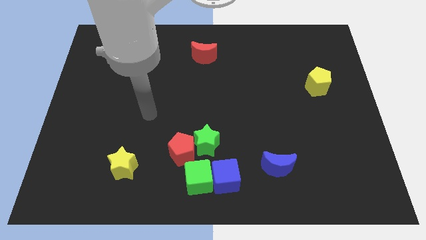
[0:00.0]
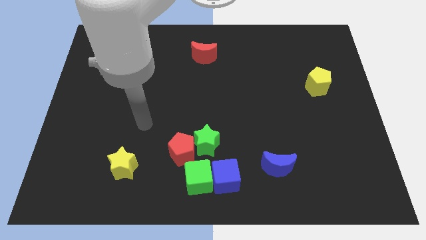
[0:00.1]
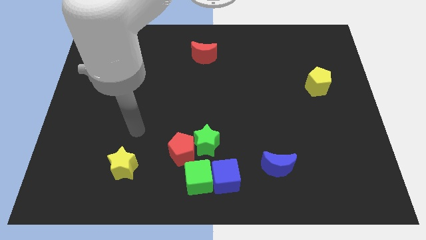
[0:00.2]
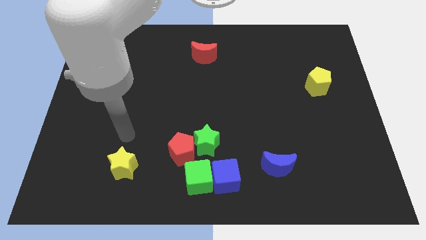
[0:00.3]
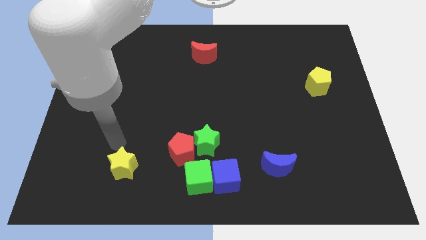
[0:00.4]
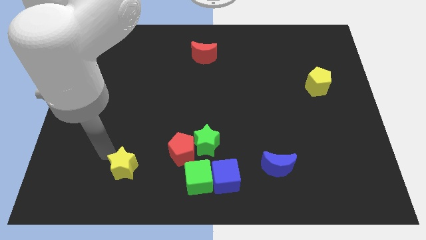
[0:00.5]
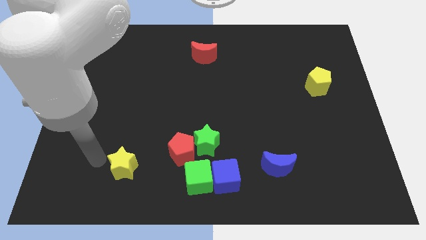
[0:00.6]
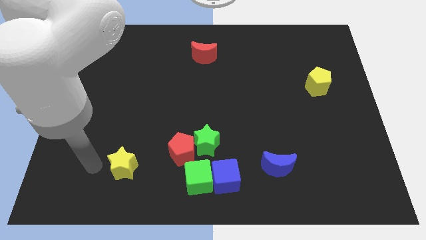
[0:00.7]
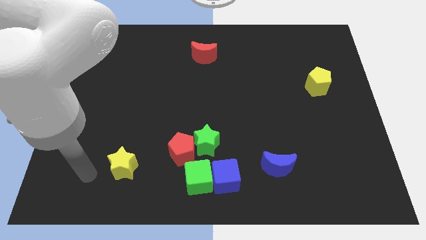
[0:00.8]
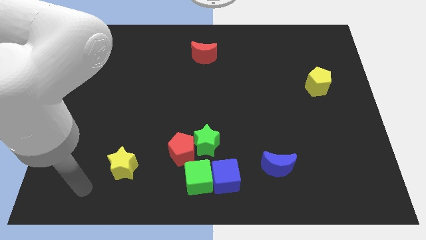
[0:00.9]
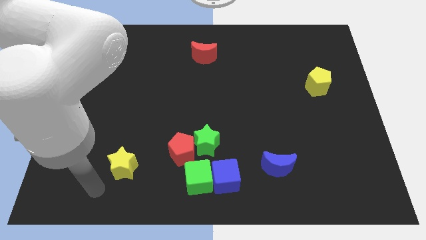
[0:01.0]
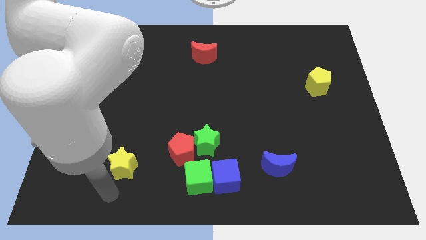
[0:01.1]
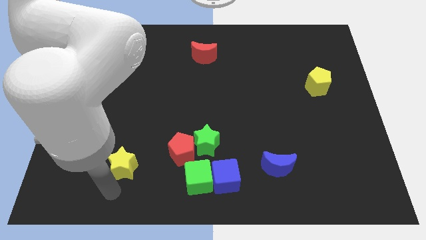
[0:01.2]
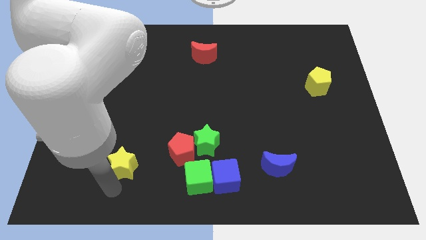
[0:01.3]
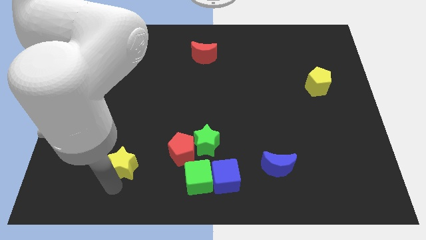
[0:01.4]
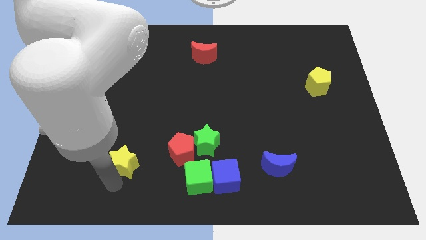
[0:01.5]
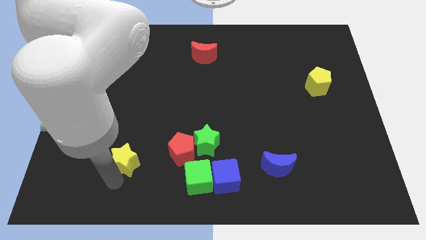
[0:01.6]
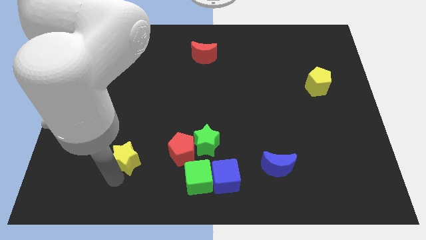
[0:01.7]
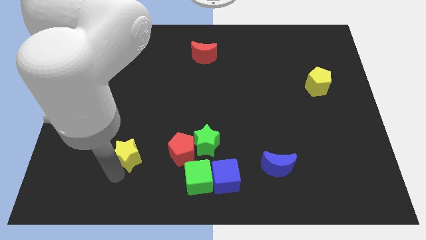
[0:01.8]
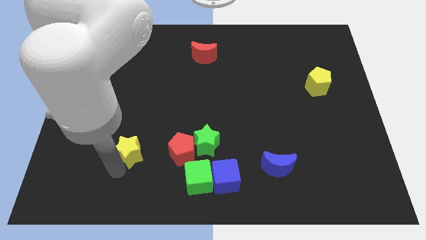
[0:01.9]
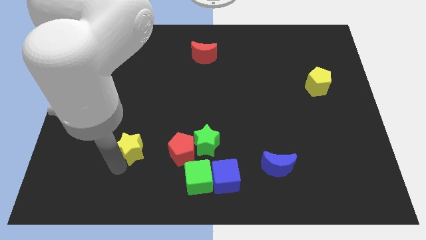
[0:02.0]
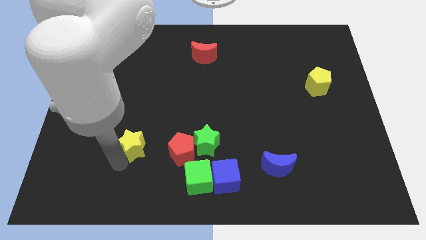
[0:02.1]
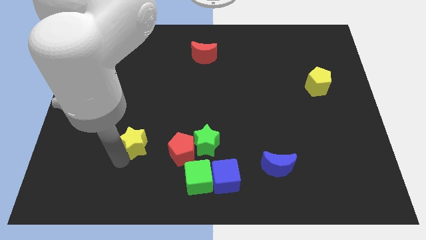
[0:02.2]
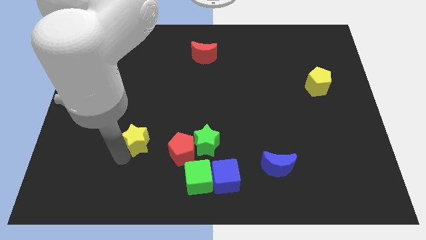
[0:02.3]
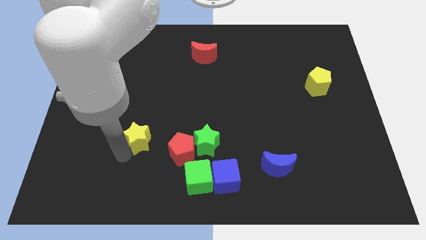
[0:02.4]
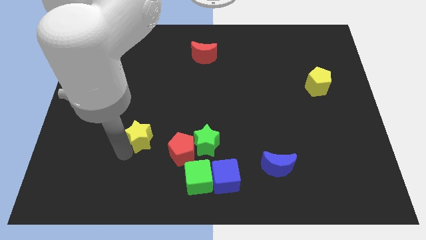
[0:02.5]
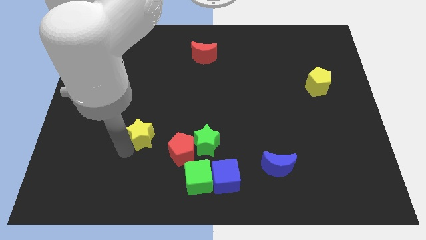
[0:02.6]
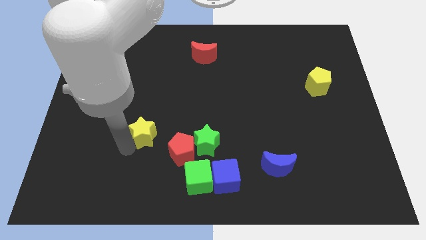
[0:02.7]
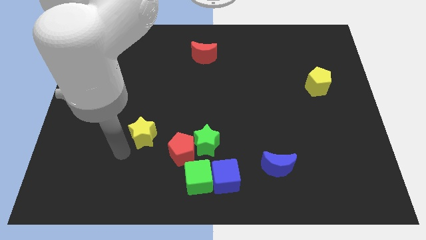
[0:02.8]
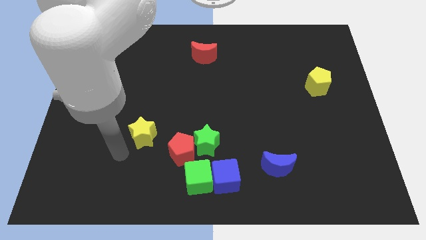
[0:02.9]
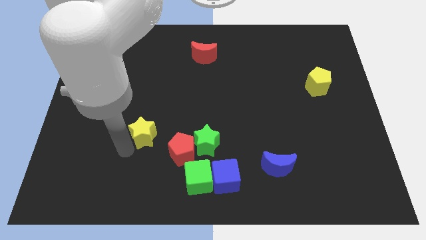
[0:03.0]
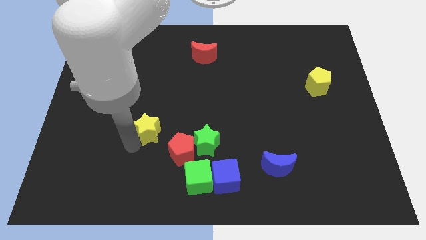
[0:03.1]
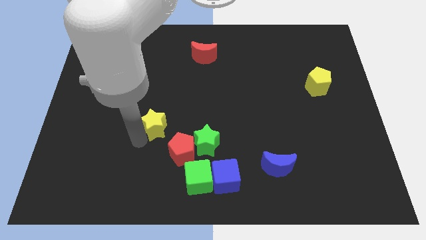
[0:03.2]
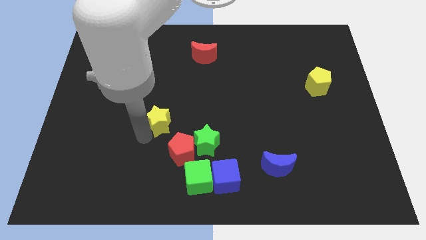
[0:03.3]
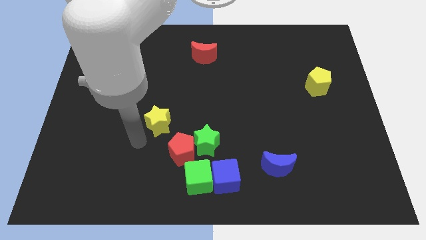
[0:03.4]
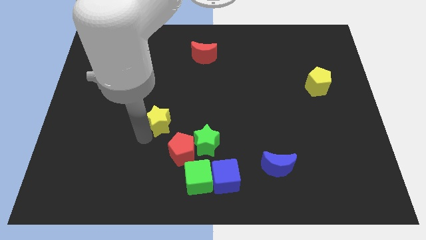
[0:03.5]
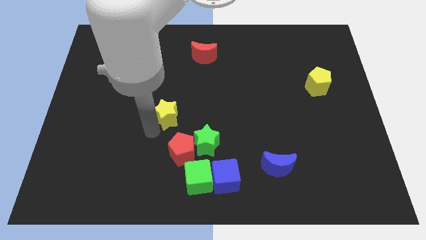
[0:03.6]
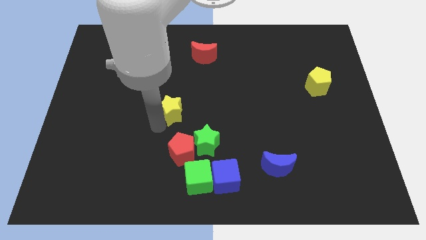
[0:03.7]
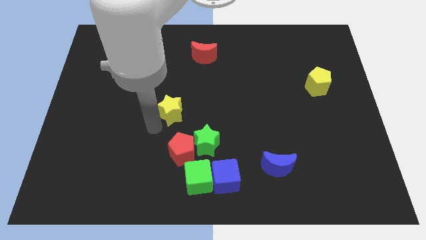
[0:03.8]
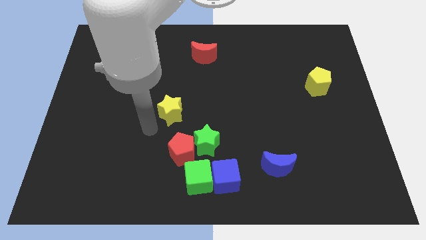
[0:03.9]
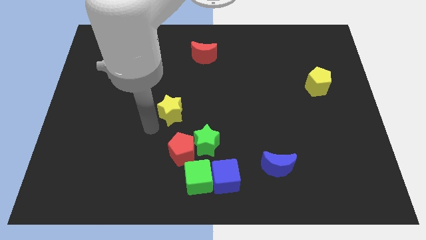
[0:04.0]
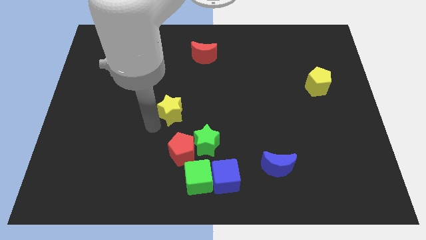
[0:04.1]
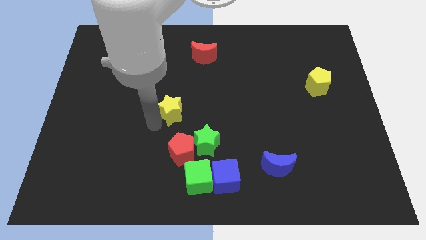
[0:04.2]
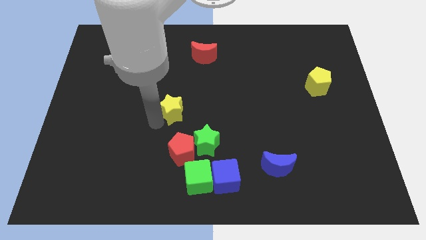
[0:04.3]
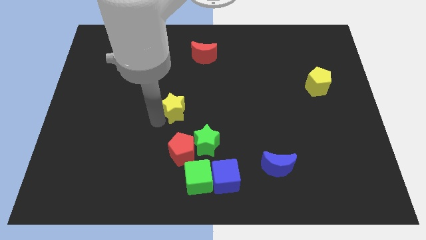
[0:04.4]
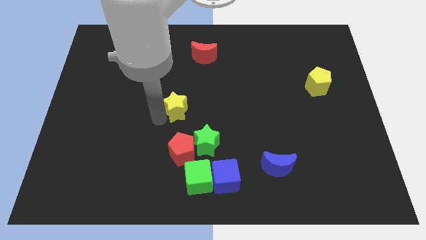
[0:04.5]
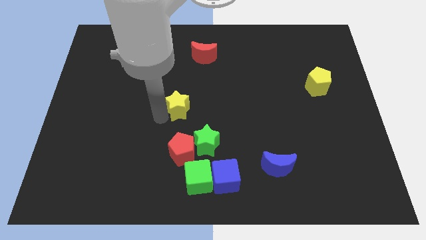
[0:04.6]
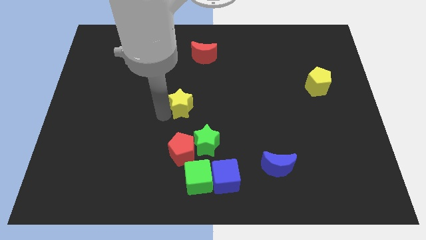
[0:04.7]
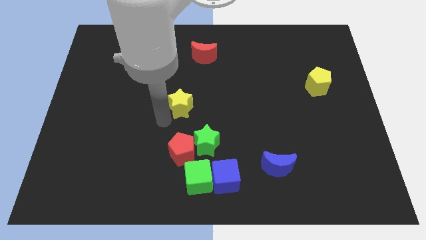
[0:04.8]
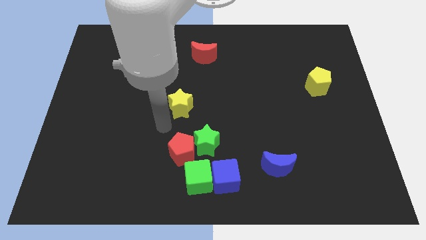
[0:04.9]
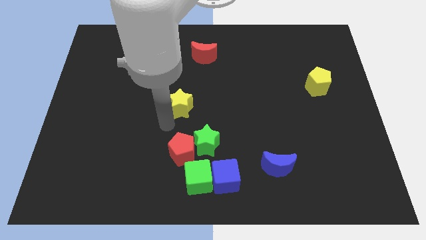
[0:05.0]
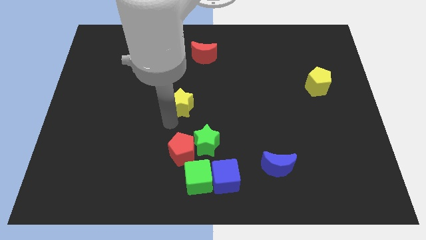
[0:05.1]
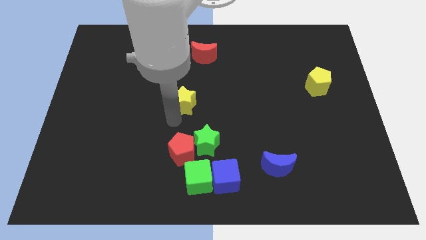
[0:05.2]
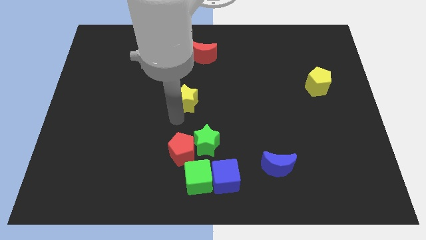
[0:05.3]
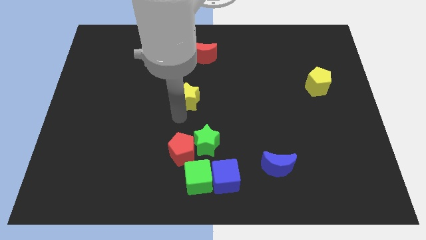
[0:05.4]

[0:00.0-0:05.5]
put the yellow star to the bottom side of the red moon

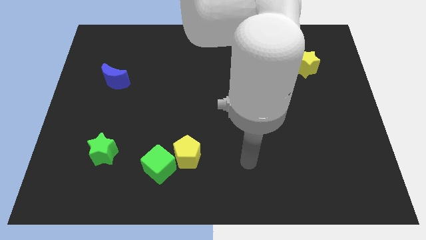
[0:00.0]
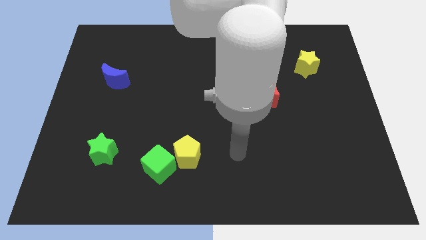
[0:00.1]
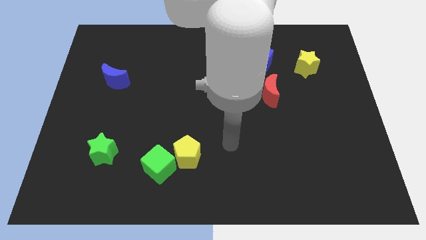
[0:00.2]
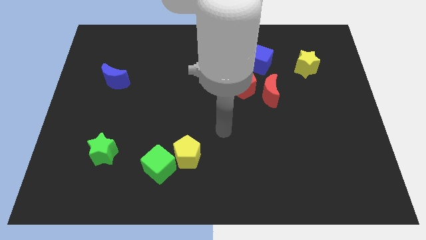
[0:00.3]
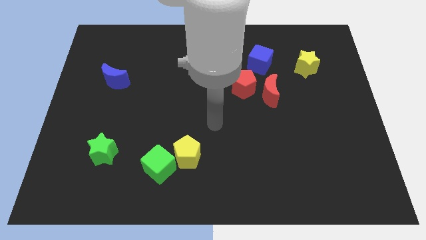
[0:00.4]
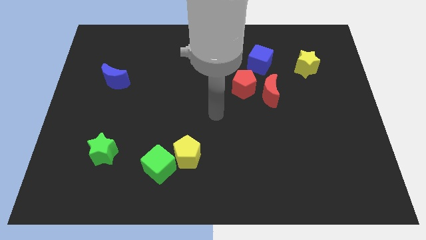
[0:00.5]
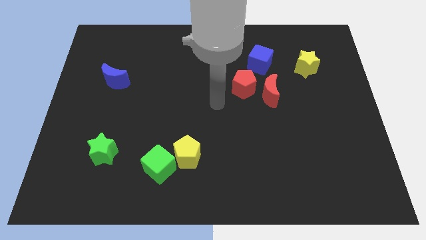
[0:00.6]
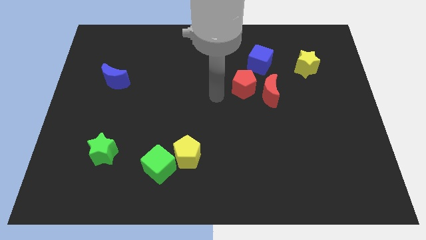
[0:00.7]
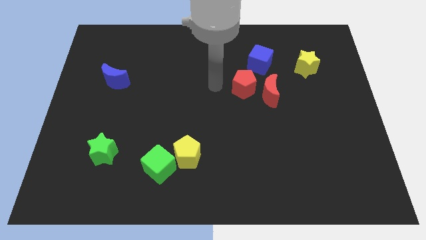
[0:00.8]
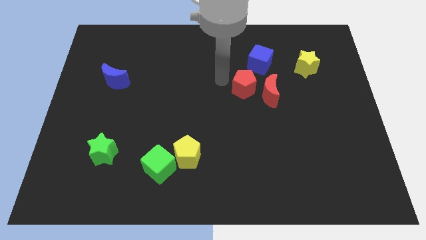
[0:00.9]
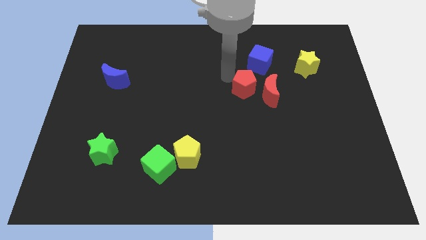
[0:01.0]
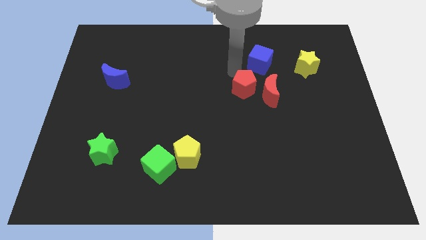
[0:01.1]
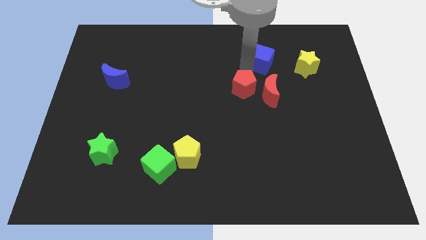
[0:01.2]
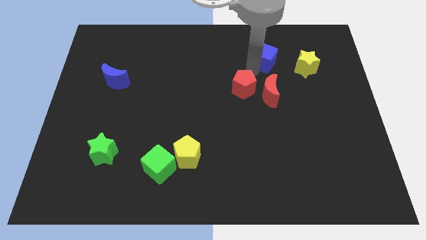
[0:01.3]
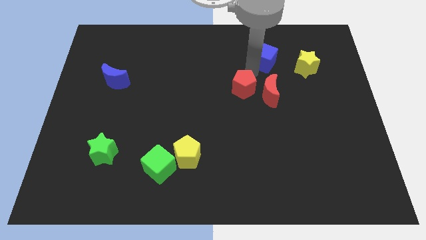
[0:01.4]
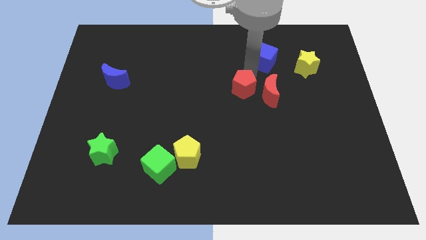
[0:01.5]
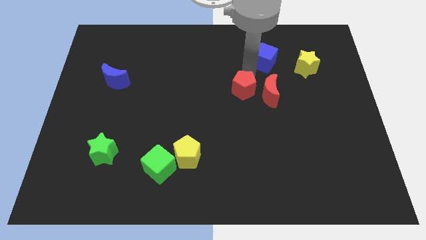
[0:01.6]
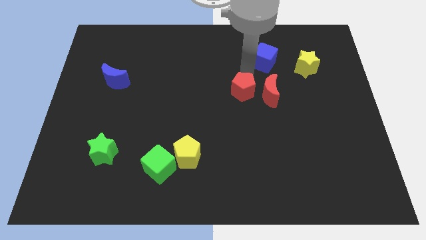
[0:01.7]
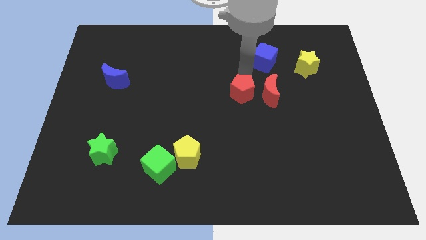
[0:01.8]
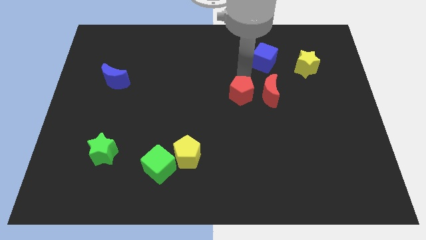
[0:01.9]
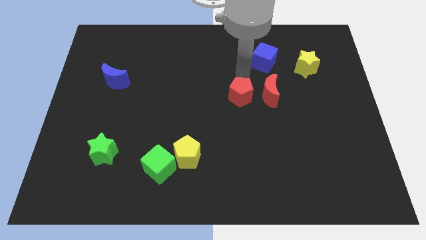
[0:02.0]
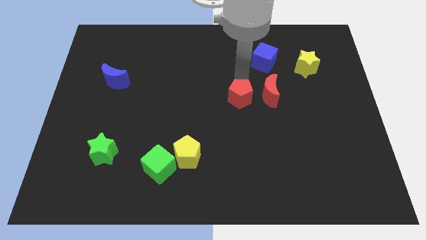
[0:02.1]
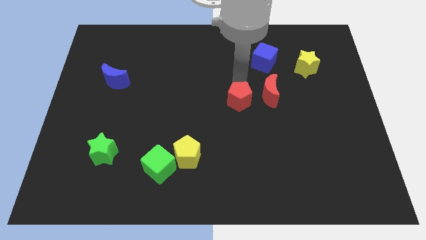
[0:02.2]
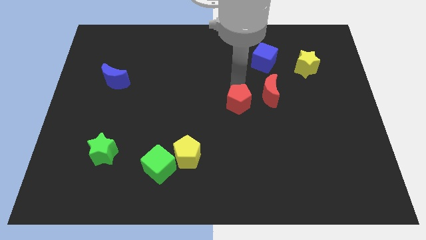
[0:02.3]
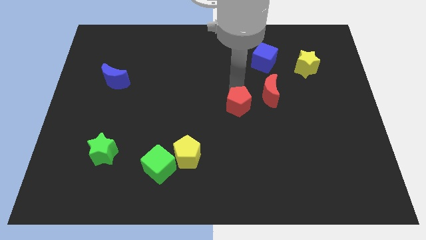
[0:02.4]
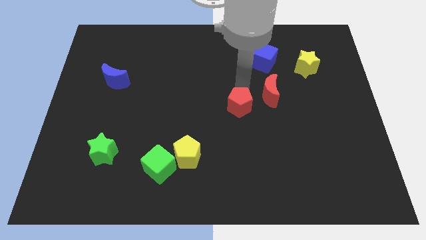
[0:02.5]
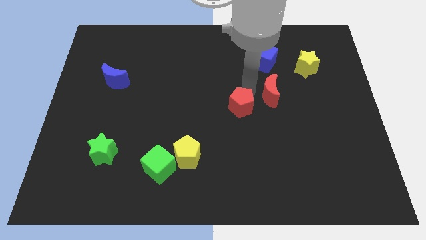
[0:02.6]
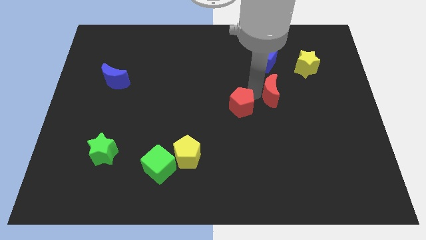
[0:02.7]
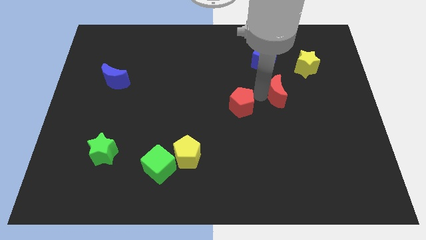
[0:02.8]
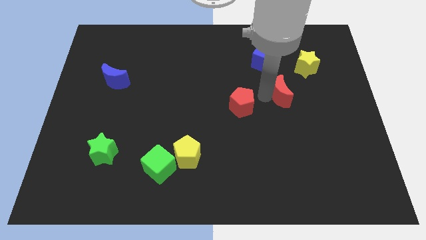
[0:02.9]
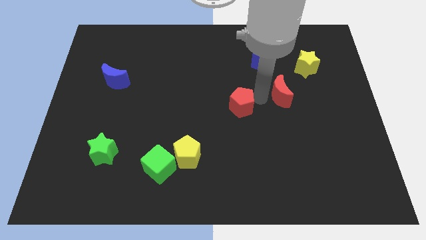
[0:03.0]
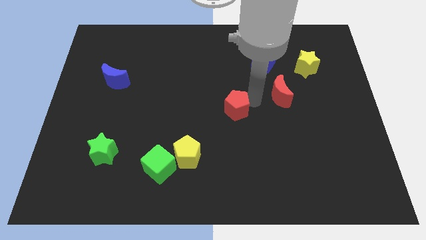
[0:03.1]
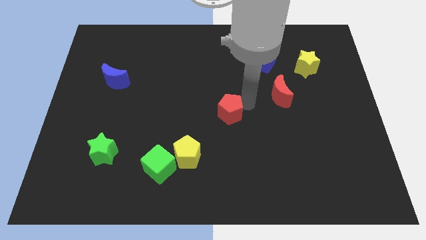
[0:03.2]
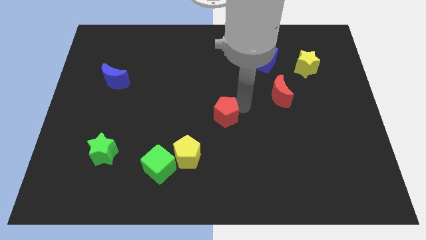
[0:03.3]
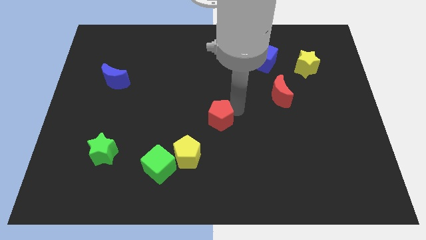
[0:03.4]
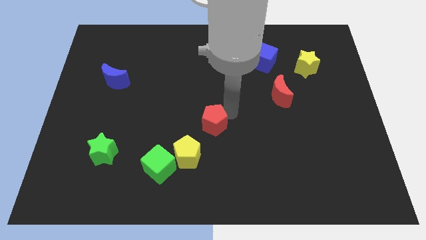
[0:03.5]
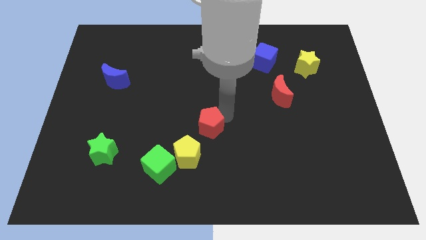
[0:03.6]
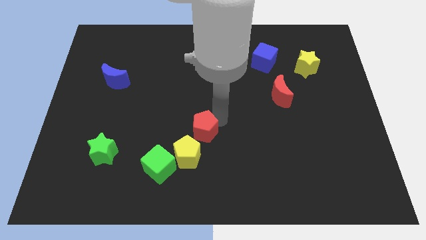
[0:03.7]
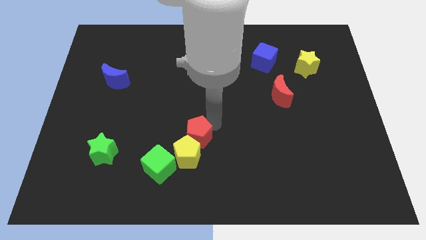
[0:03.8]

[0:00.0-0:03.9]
move the red pentagon diagonally up and to the right of the green cube
